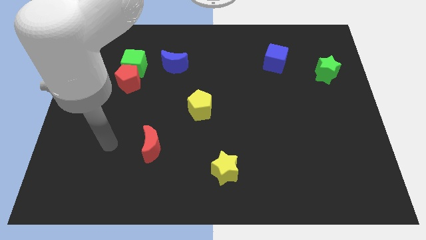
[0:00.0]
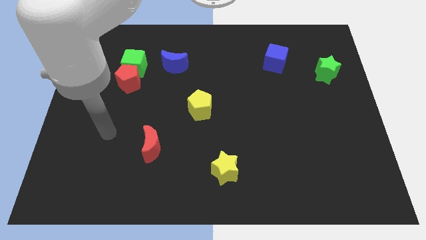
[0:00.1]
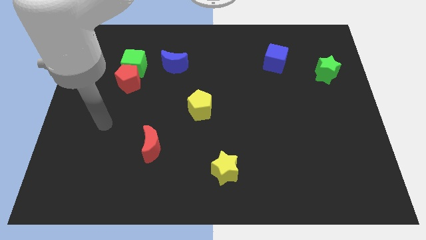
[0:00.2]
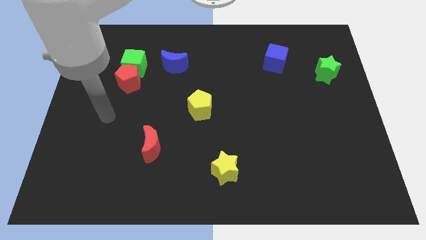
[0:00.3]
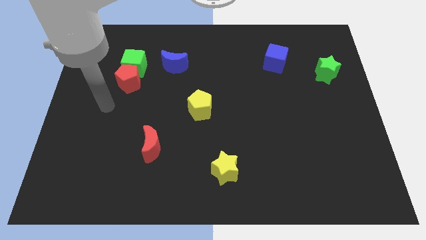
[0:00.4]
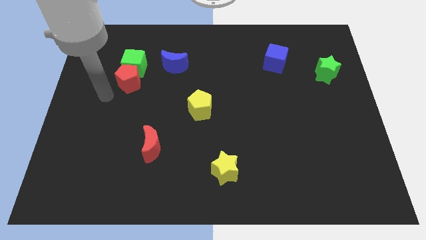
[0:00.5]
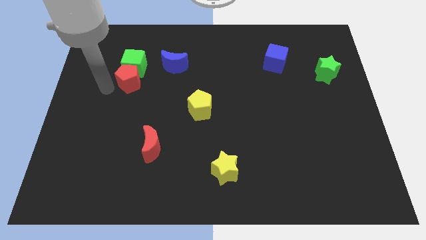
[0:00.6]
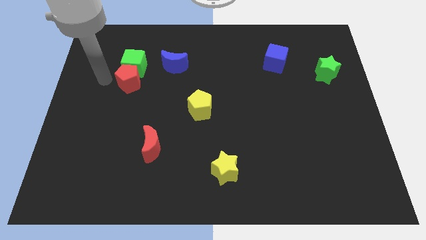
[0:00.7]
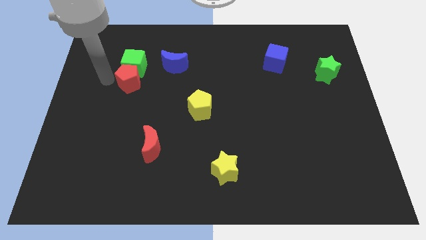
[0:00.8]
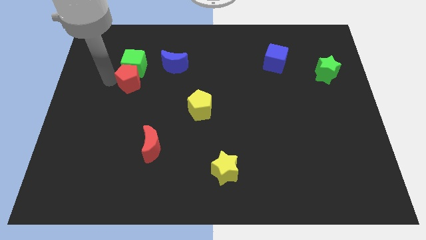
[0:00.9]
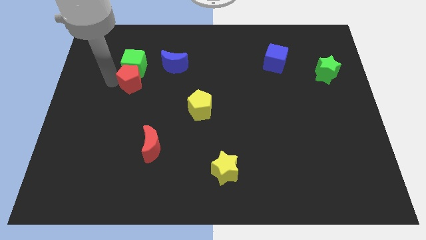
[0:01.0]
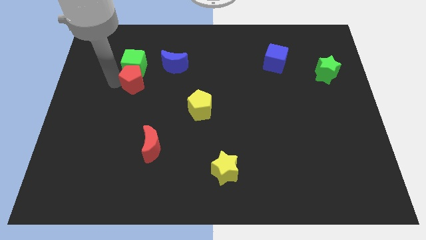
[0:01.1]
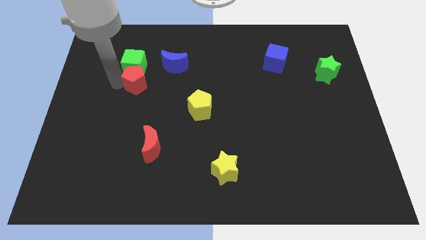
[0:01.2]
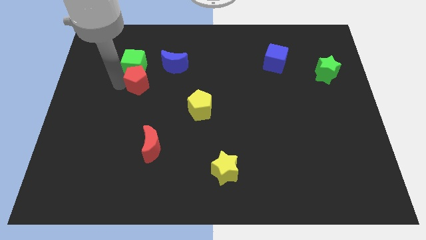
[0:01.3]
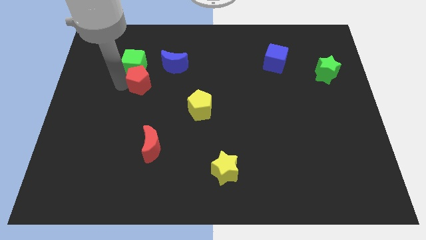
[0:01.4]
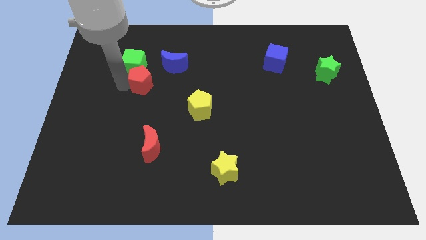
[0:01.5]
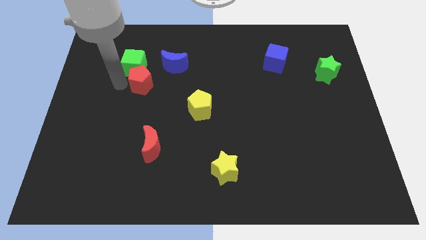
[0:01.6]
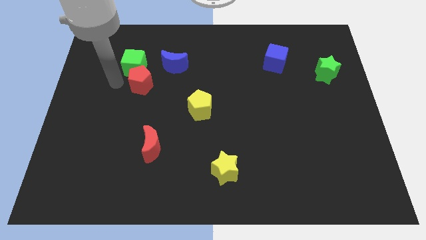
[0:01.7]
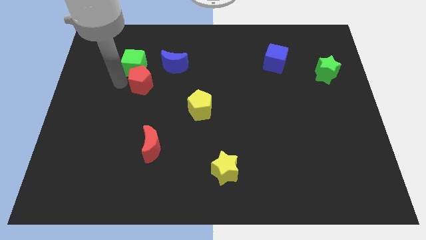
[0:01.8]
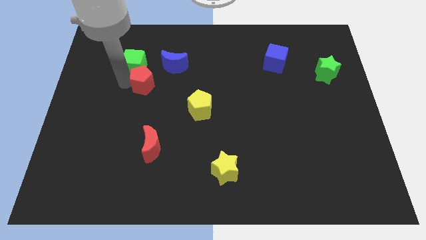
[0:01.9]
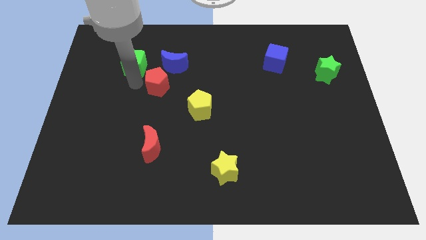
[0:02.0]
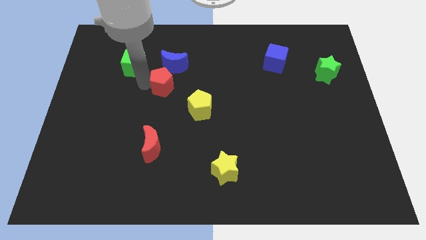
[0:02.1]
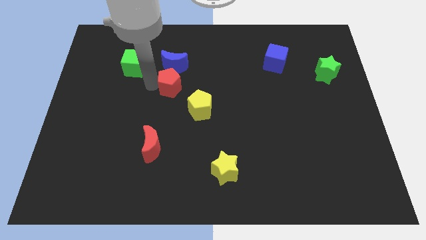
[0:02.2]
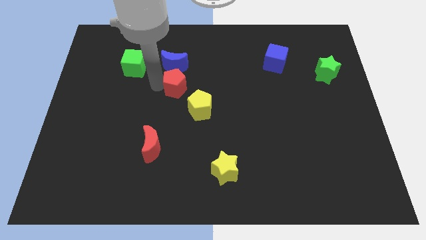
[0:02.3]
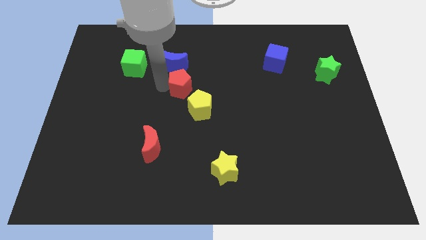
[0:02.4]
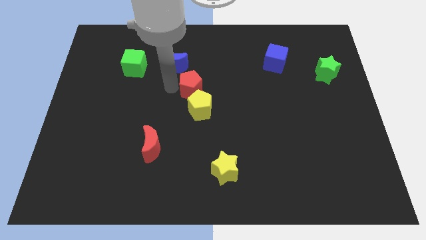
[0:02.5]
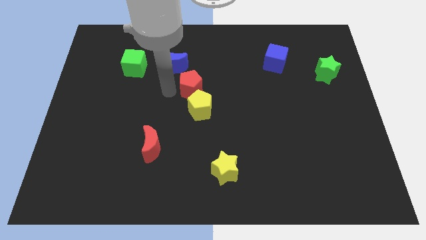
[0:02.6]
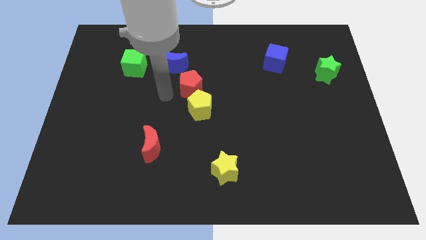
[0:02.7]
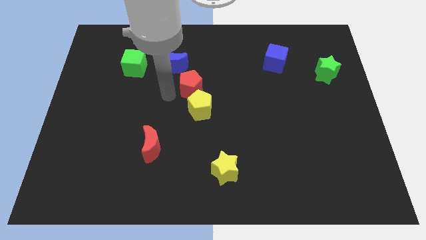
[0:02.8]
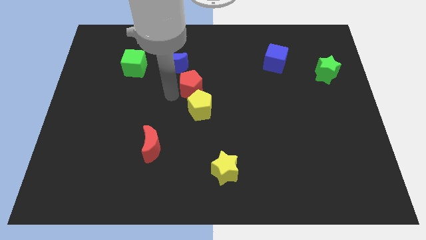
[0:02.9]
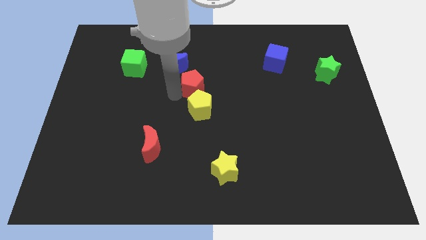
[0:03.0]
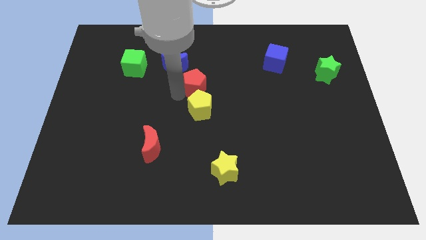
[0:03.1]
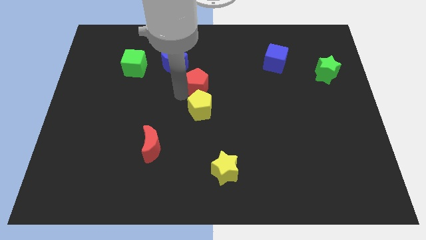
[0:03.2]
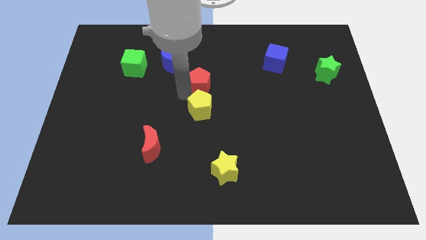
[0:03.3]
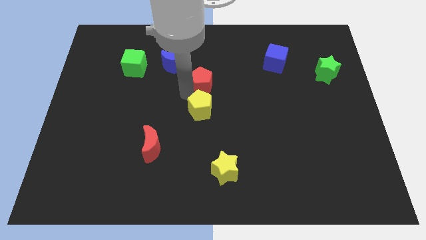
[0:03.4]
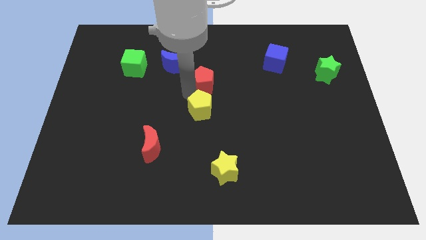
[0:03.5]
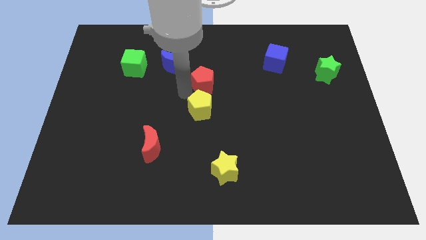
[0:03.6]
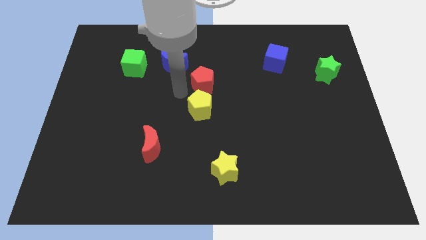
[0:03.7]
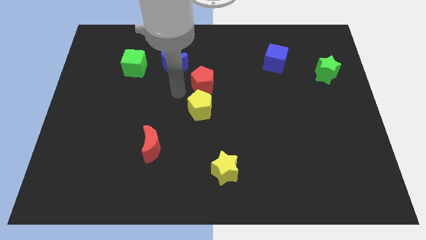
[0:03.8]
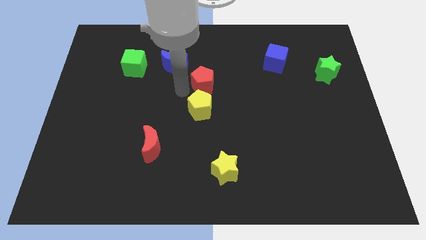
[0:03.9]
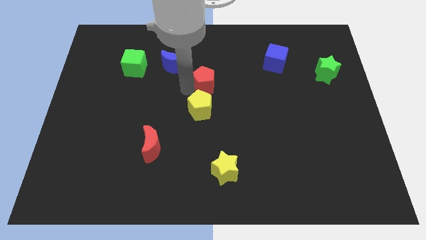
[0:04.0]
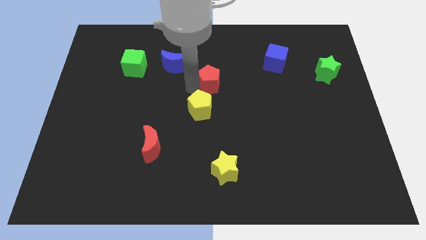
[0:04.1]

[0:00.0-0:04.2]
slide the red pentagon right

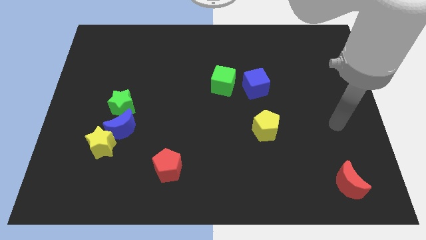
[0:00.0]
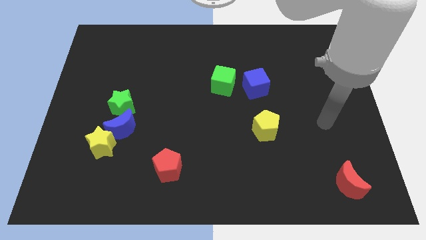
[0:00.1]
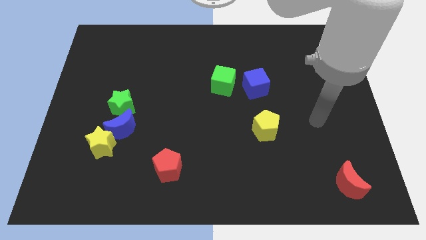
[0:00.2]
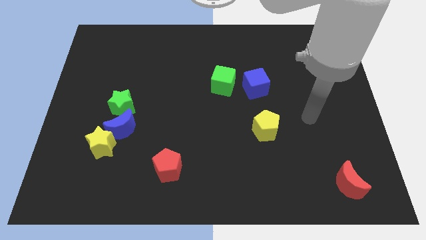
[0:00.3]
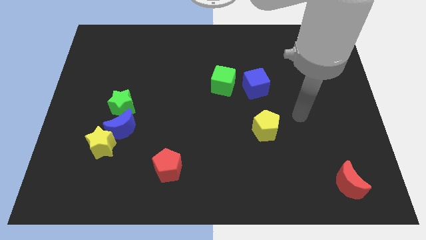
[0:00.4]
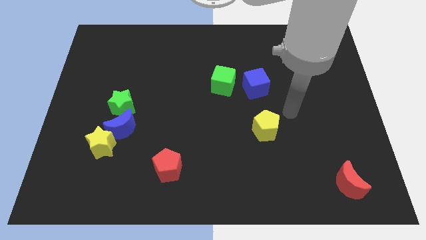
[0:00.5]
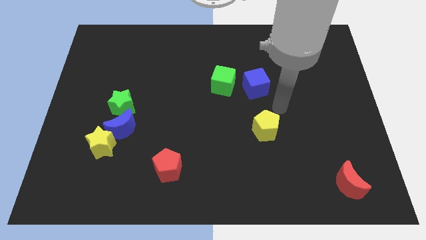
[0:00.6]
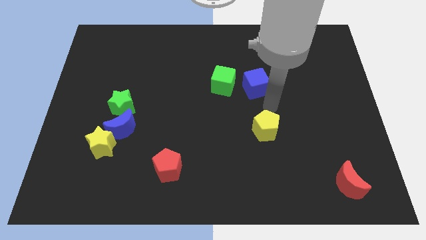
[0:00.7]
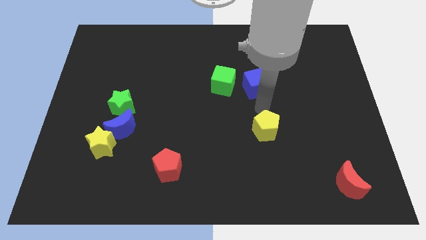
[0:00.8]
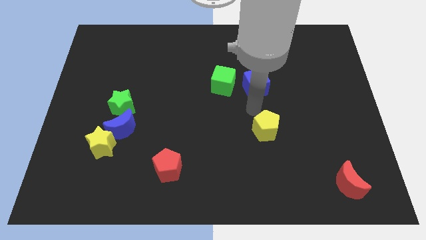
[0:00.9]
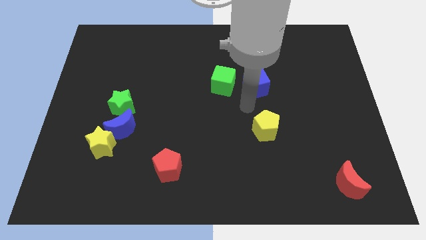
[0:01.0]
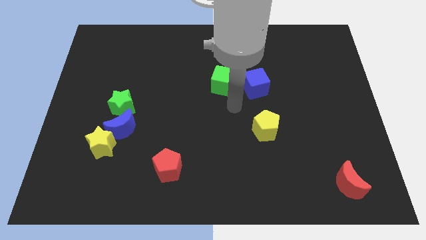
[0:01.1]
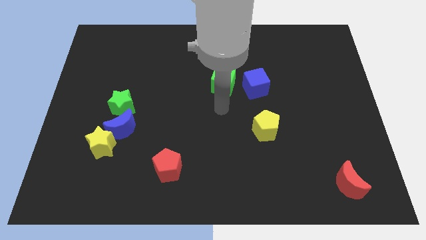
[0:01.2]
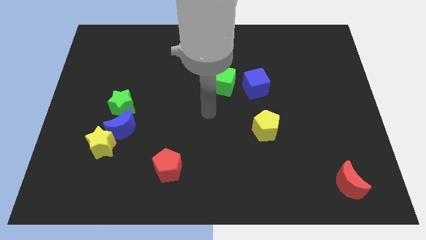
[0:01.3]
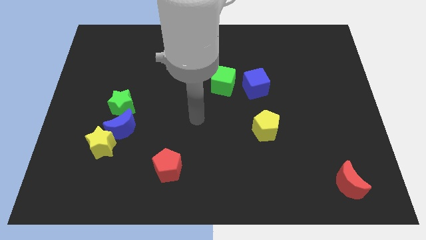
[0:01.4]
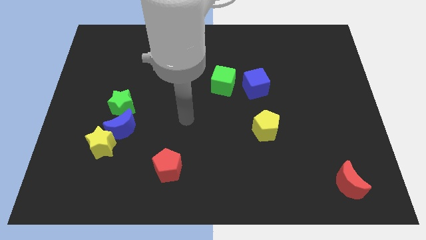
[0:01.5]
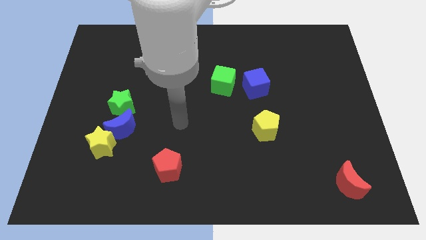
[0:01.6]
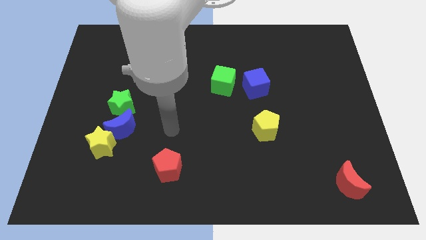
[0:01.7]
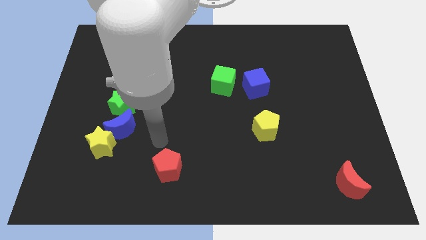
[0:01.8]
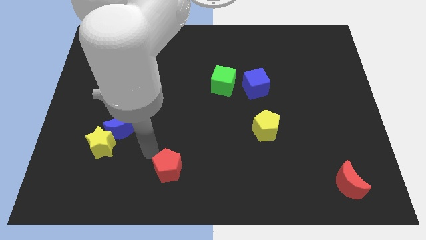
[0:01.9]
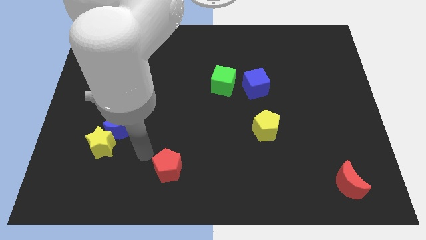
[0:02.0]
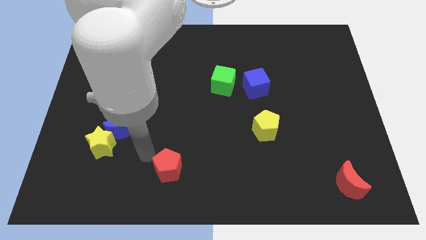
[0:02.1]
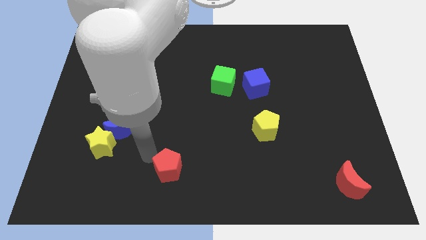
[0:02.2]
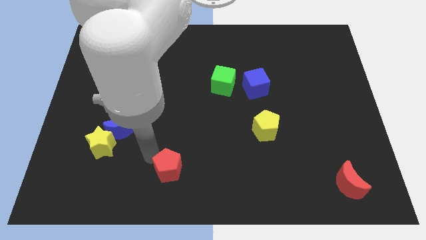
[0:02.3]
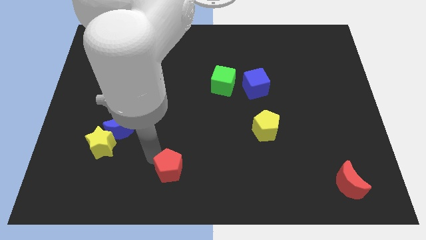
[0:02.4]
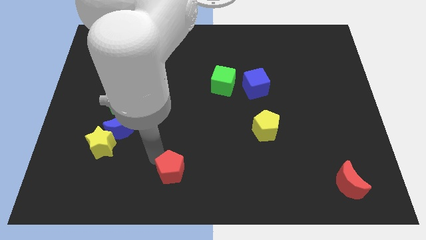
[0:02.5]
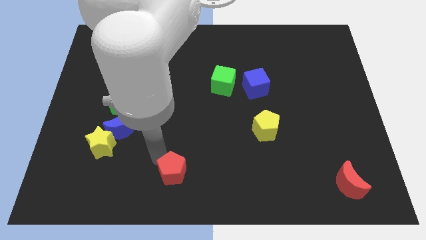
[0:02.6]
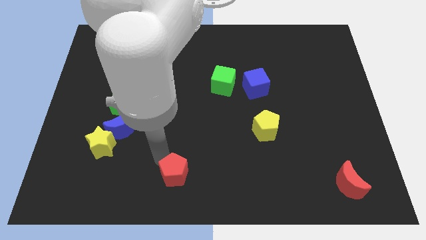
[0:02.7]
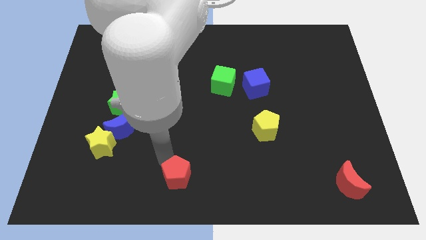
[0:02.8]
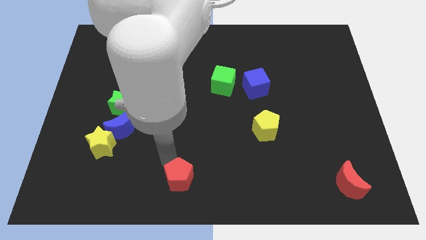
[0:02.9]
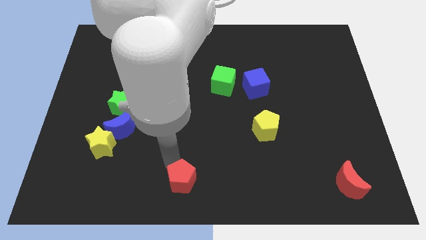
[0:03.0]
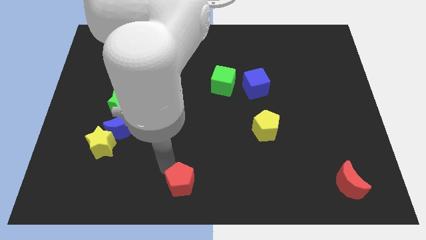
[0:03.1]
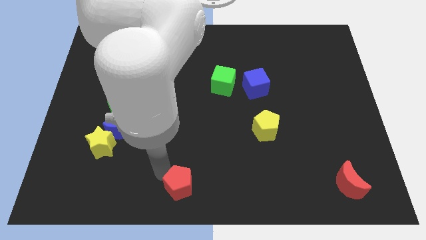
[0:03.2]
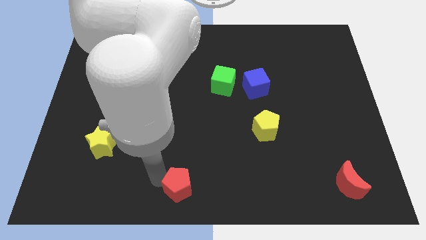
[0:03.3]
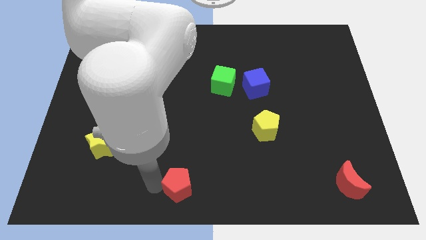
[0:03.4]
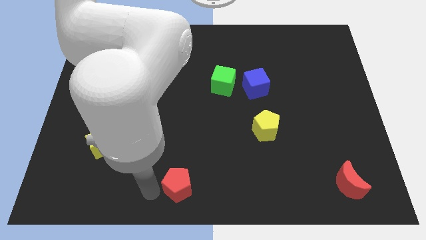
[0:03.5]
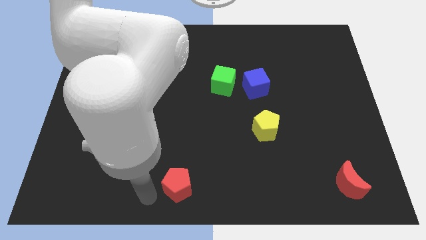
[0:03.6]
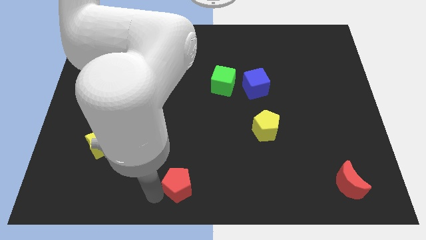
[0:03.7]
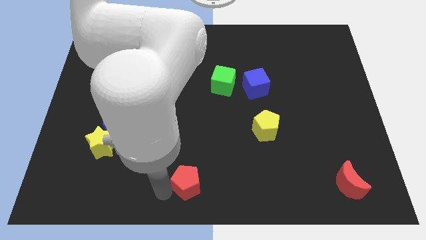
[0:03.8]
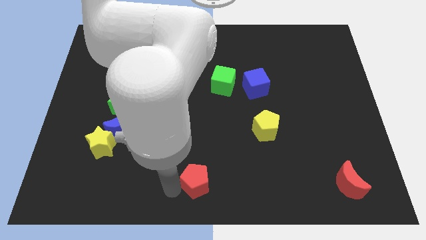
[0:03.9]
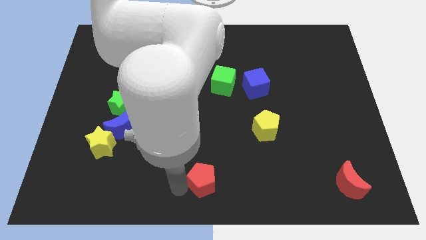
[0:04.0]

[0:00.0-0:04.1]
slide the red pentagon to the right a little bit
